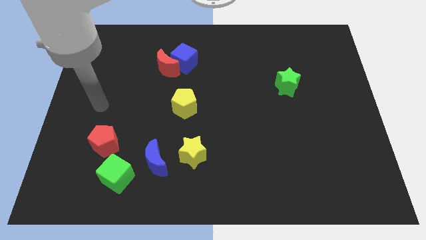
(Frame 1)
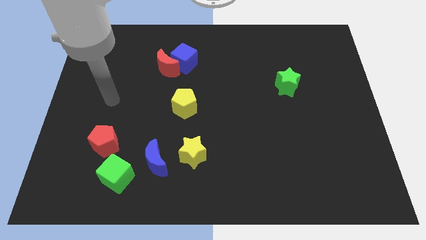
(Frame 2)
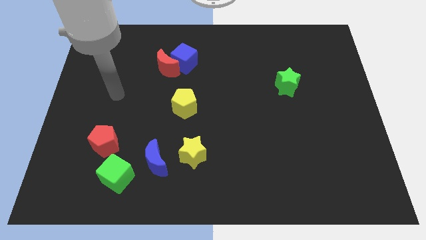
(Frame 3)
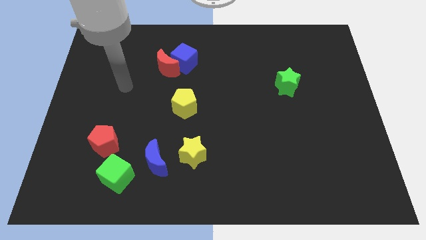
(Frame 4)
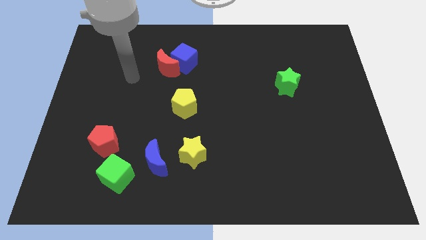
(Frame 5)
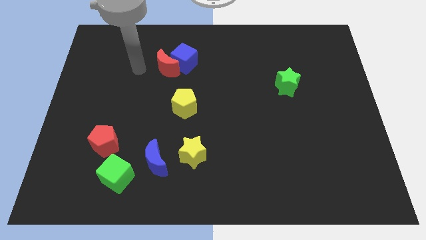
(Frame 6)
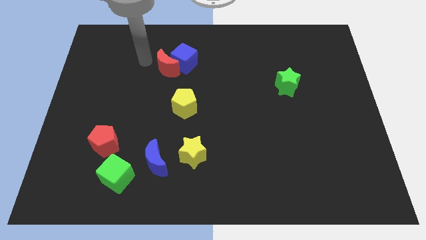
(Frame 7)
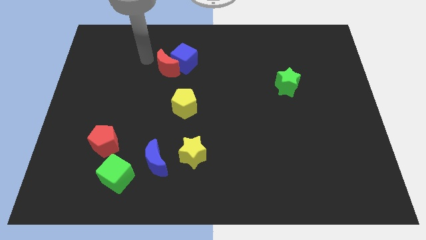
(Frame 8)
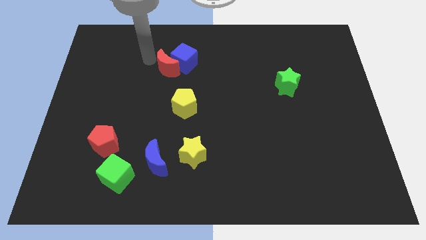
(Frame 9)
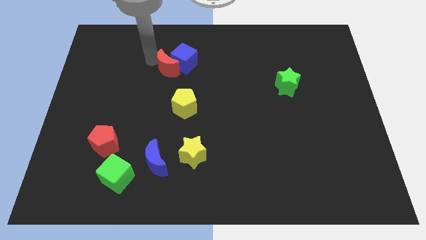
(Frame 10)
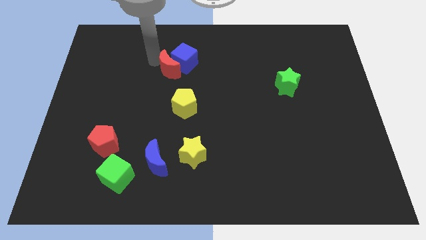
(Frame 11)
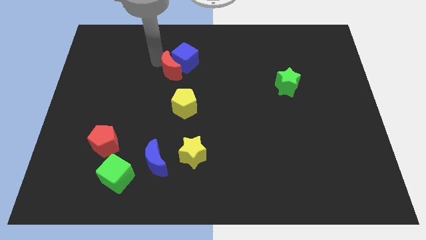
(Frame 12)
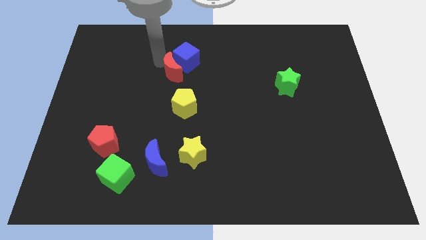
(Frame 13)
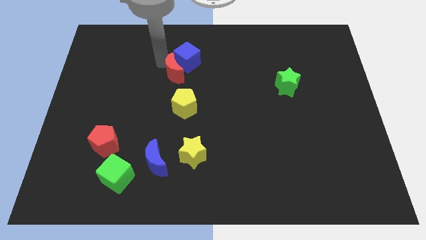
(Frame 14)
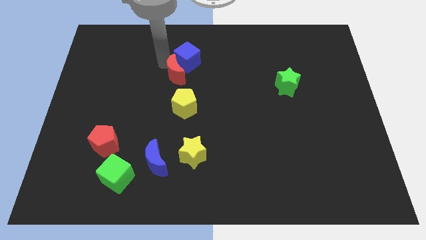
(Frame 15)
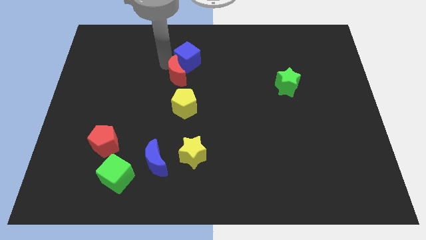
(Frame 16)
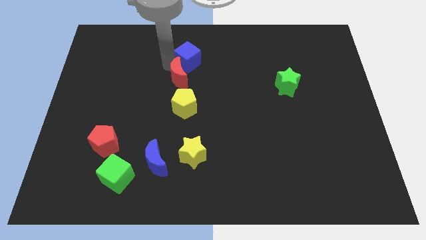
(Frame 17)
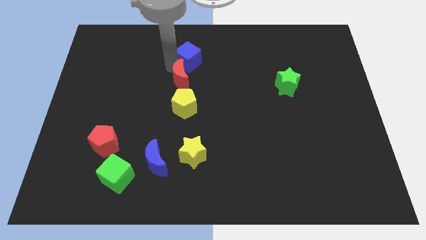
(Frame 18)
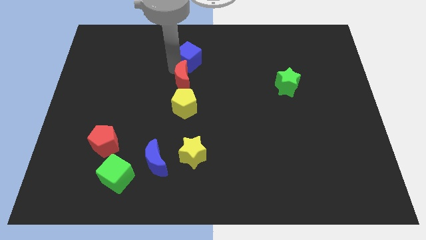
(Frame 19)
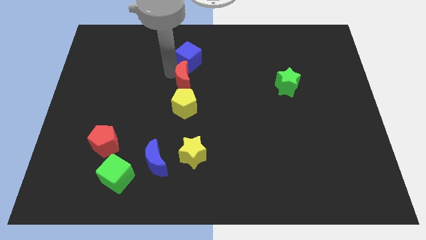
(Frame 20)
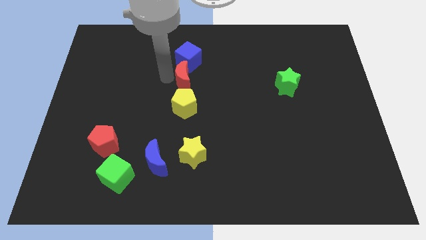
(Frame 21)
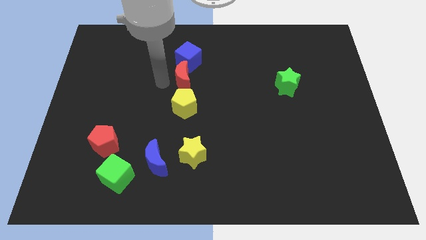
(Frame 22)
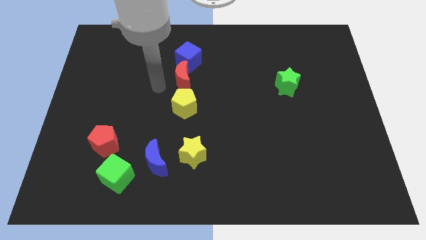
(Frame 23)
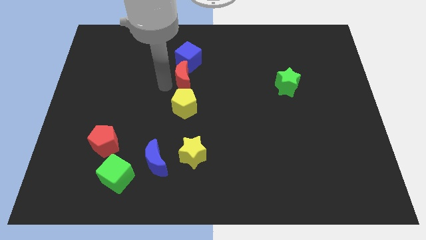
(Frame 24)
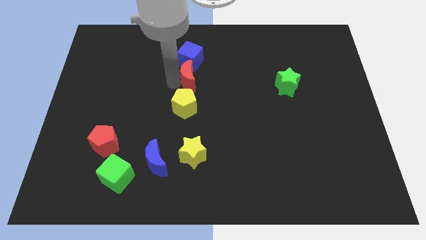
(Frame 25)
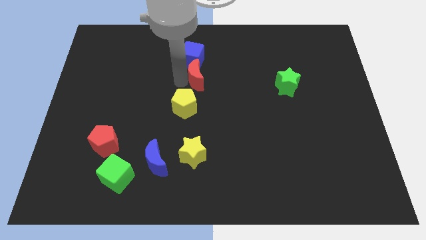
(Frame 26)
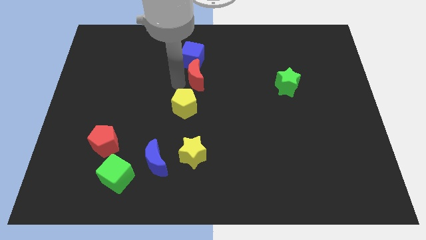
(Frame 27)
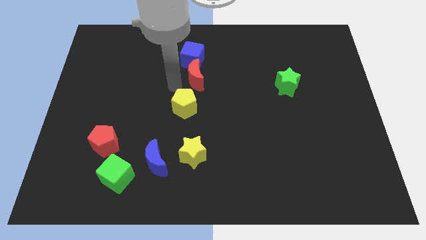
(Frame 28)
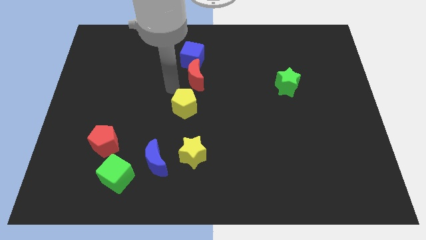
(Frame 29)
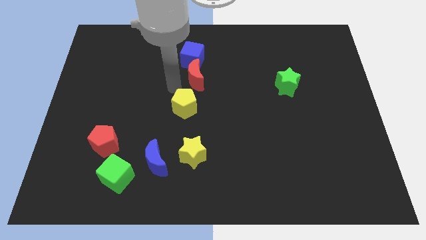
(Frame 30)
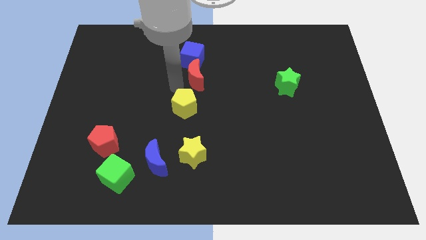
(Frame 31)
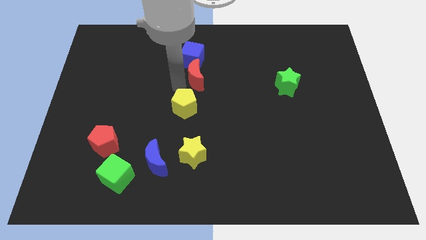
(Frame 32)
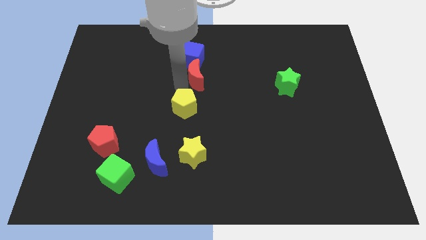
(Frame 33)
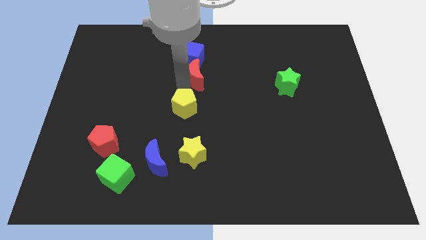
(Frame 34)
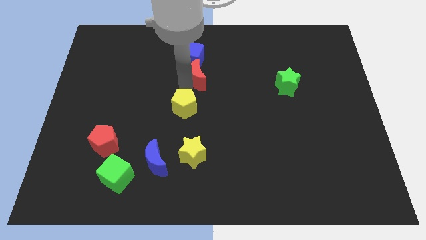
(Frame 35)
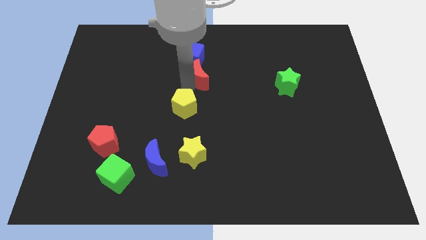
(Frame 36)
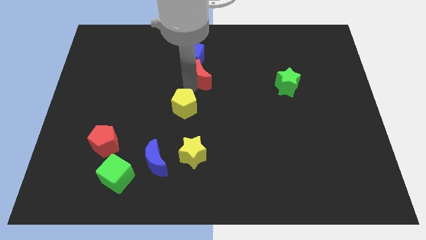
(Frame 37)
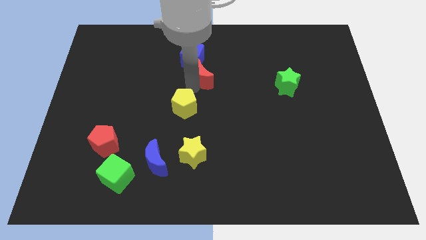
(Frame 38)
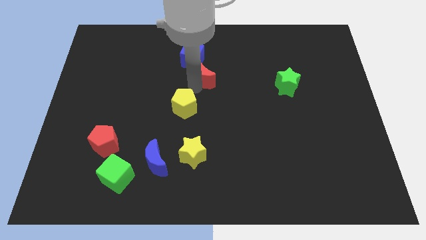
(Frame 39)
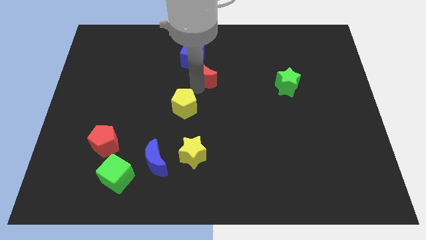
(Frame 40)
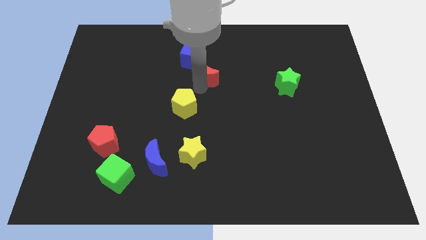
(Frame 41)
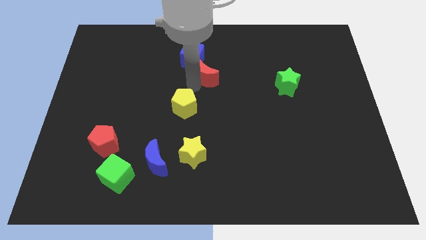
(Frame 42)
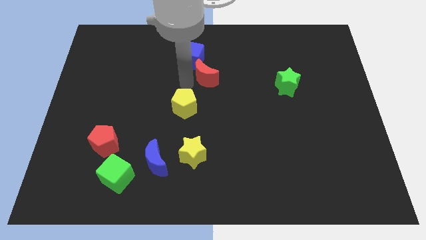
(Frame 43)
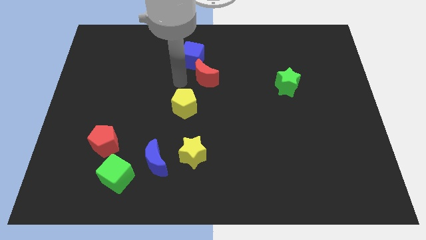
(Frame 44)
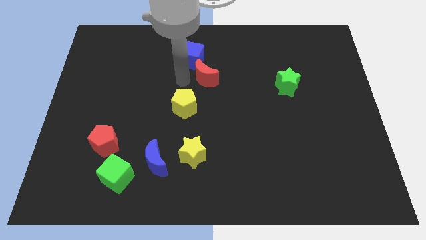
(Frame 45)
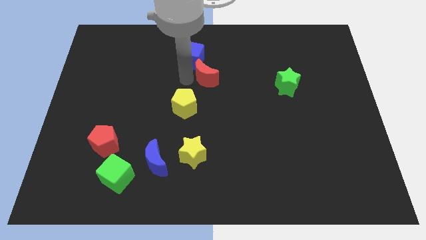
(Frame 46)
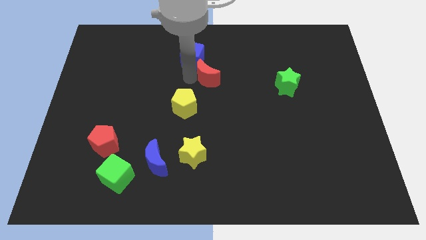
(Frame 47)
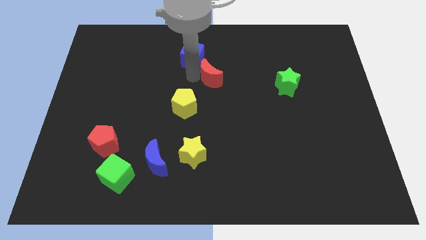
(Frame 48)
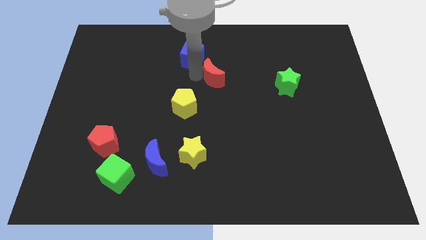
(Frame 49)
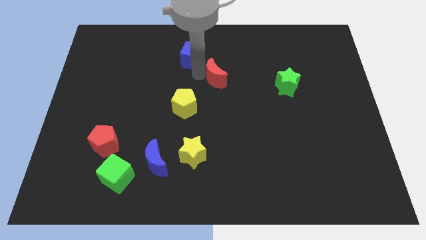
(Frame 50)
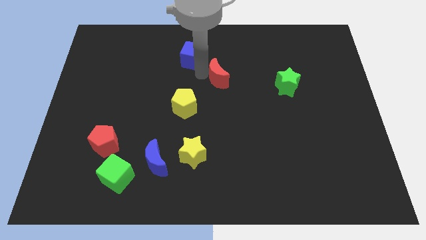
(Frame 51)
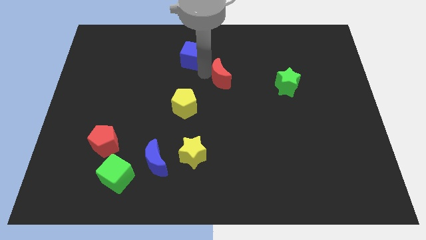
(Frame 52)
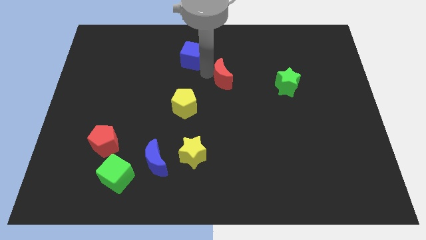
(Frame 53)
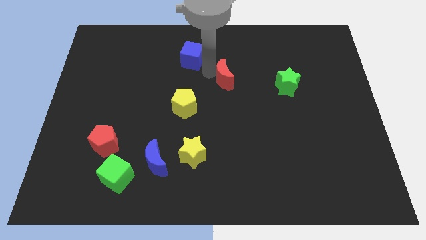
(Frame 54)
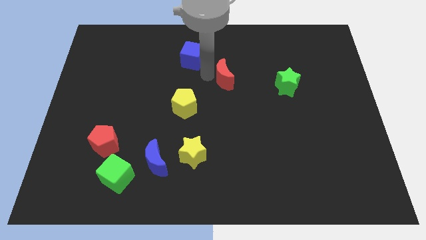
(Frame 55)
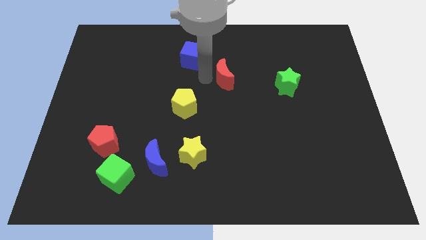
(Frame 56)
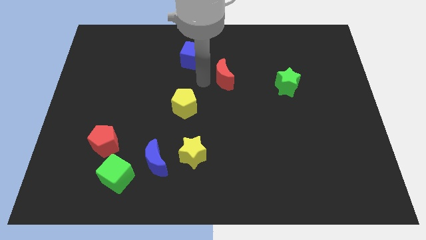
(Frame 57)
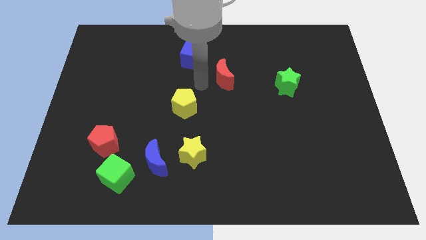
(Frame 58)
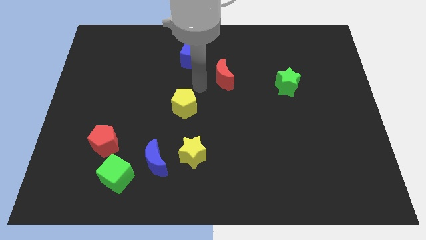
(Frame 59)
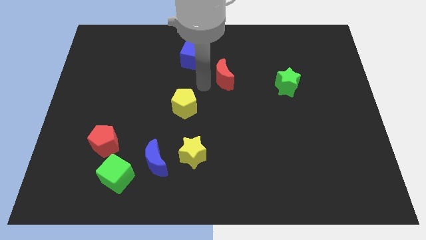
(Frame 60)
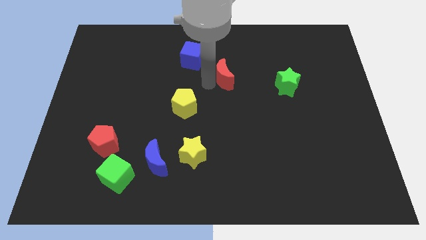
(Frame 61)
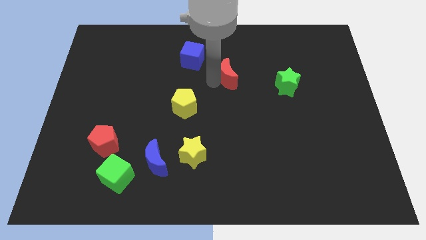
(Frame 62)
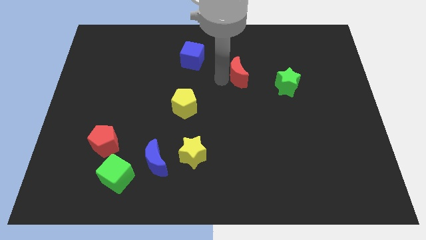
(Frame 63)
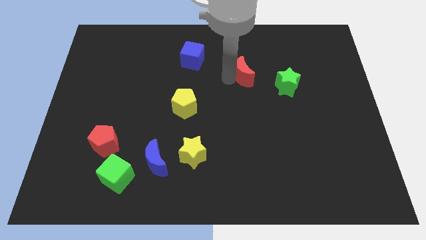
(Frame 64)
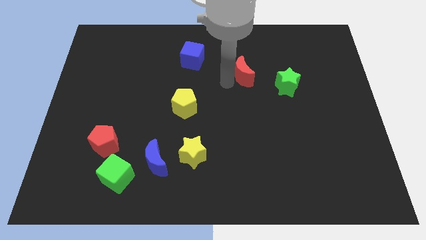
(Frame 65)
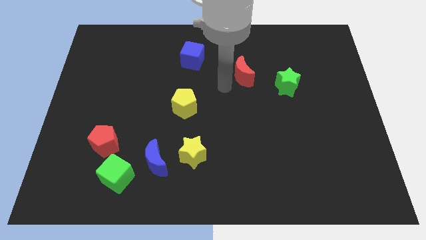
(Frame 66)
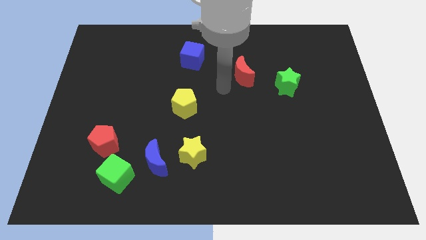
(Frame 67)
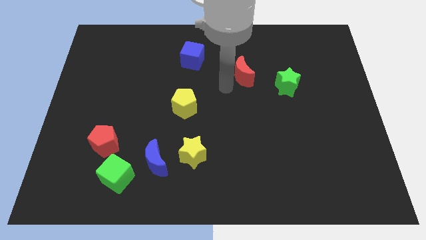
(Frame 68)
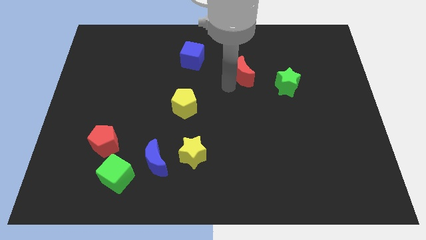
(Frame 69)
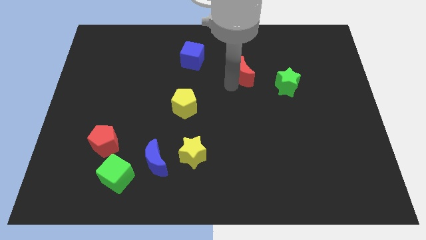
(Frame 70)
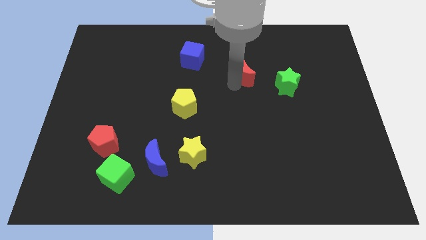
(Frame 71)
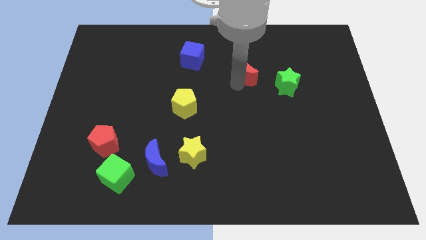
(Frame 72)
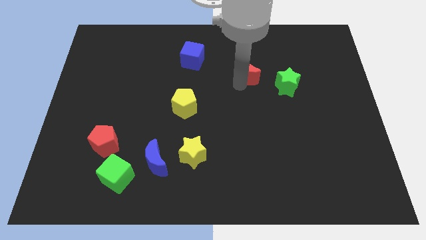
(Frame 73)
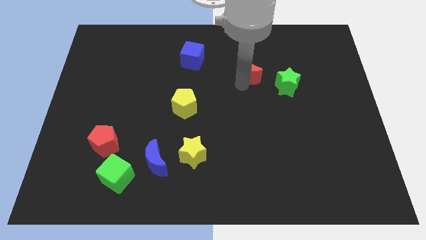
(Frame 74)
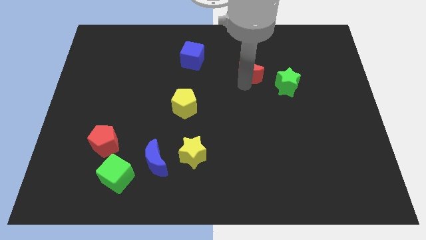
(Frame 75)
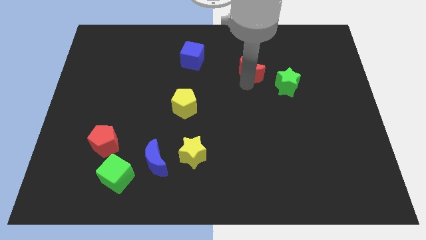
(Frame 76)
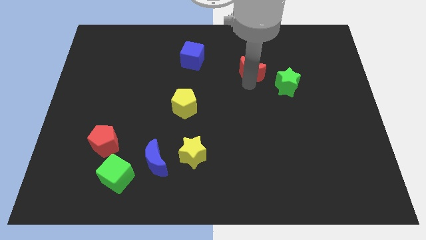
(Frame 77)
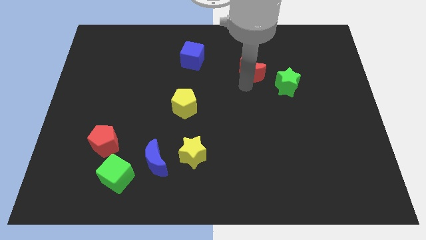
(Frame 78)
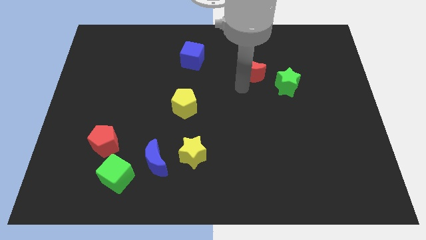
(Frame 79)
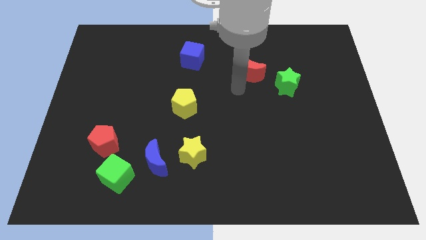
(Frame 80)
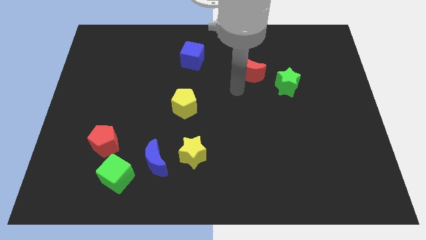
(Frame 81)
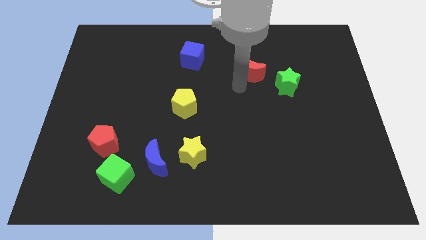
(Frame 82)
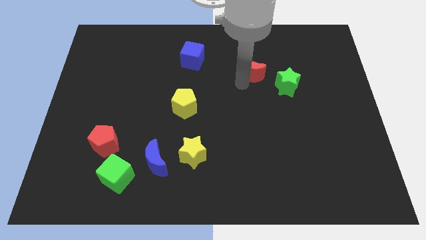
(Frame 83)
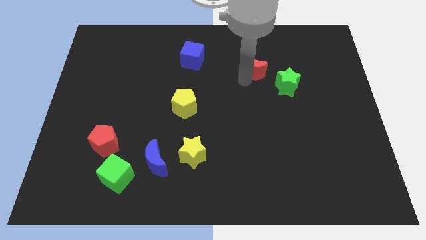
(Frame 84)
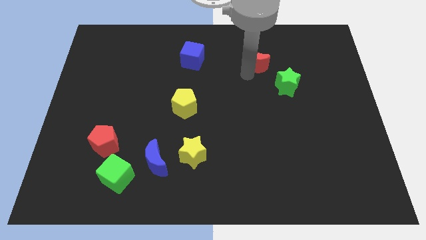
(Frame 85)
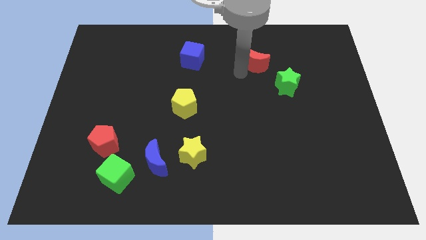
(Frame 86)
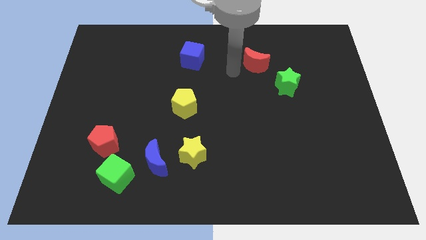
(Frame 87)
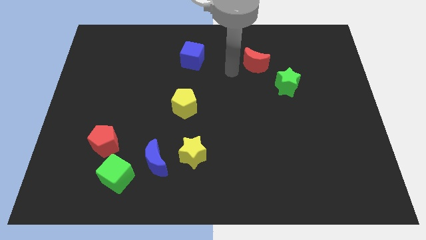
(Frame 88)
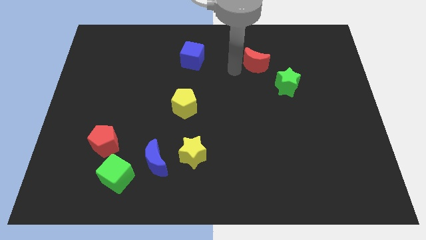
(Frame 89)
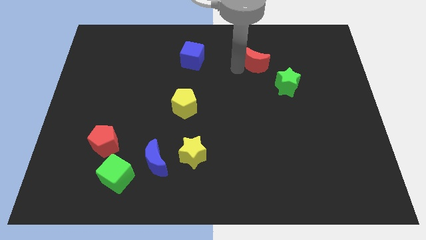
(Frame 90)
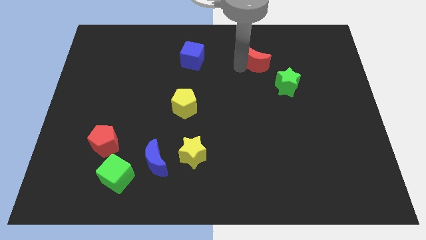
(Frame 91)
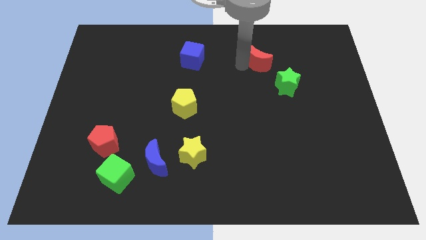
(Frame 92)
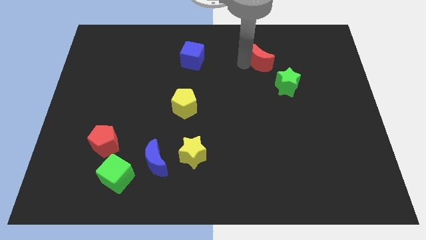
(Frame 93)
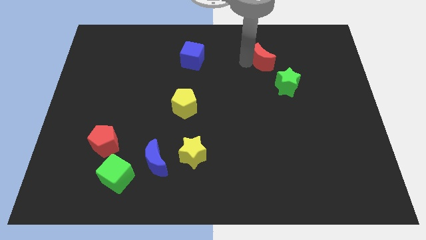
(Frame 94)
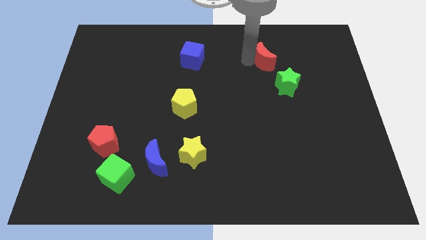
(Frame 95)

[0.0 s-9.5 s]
slide the red moon to the top of the green star
